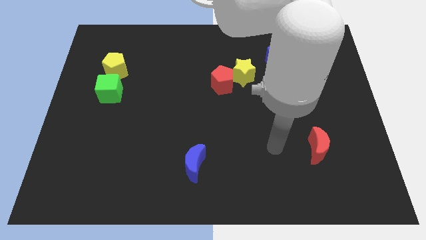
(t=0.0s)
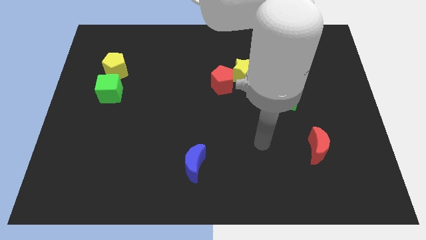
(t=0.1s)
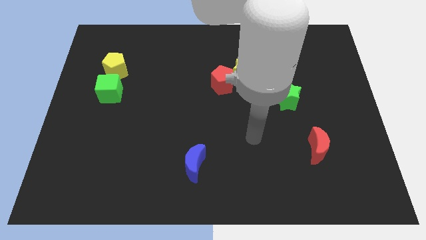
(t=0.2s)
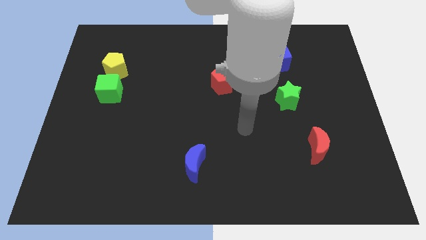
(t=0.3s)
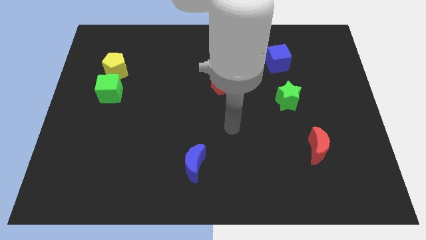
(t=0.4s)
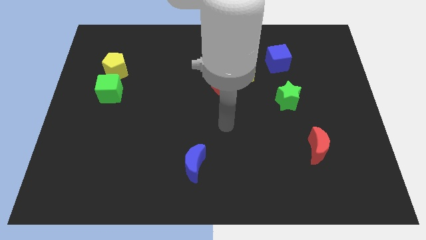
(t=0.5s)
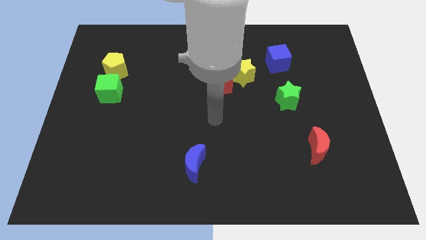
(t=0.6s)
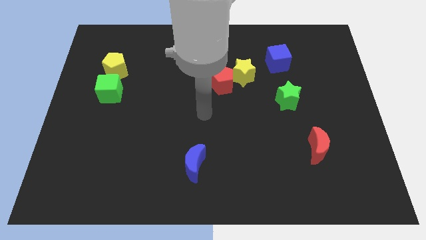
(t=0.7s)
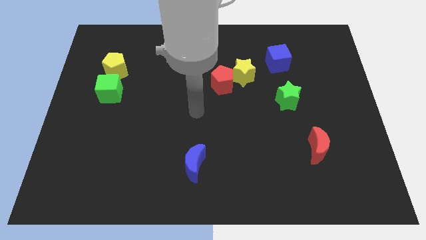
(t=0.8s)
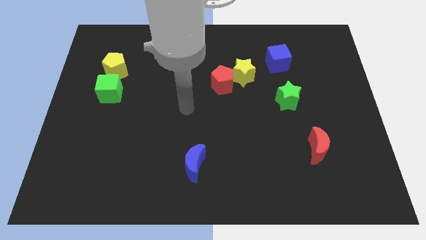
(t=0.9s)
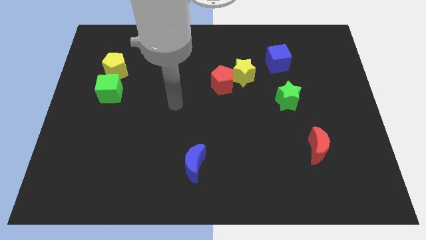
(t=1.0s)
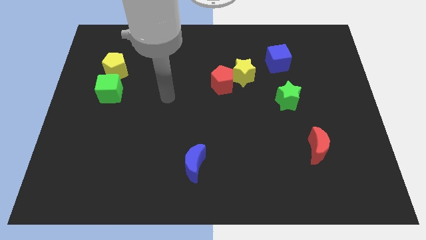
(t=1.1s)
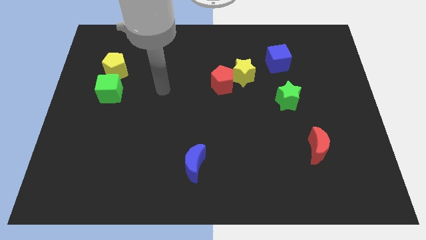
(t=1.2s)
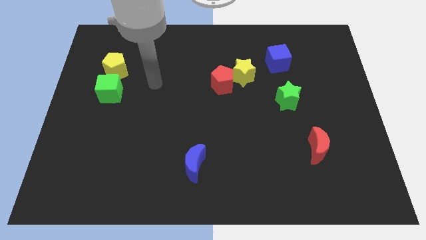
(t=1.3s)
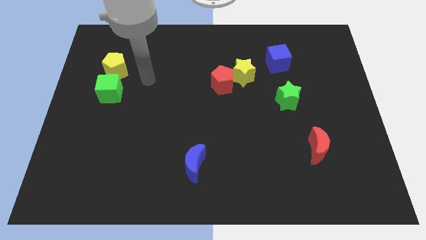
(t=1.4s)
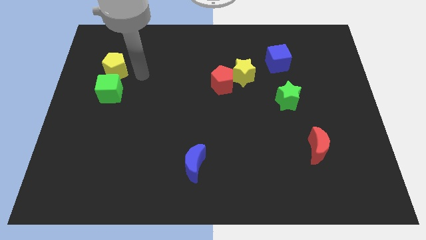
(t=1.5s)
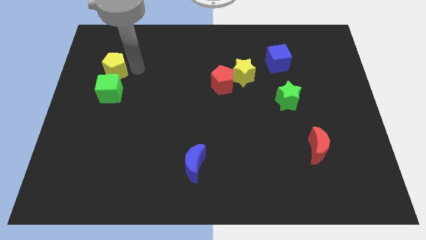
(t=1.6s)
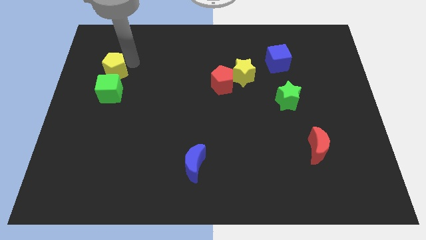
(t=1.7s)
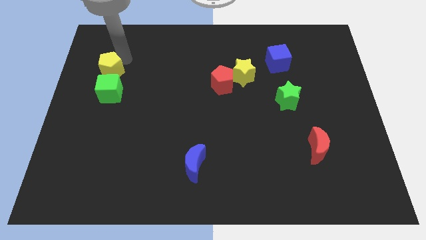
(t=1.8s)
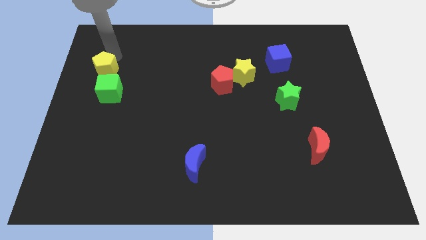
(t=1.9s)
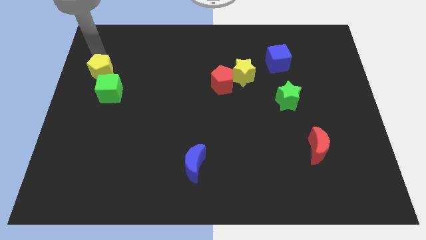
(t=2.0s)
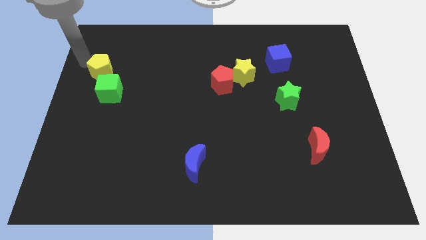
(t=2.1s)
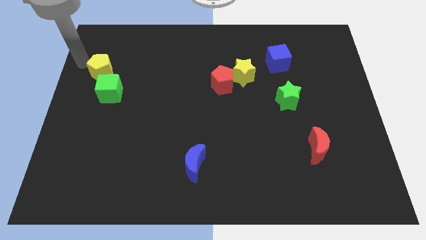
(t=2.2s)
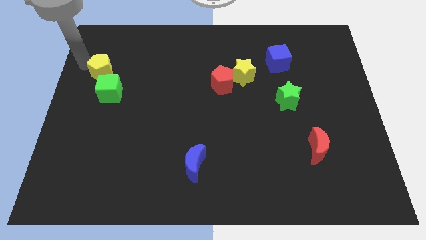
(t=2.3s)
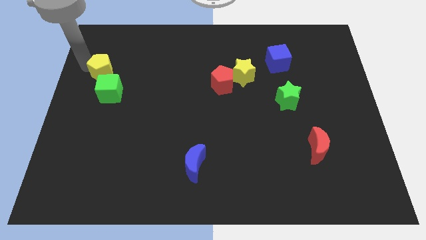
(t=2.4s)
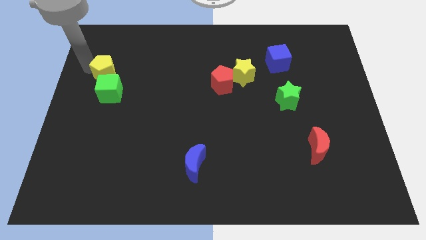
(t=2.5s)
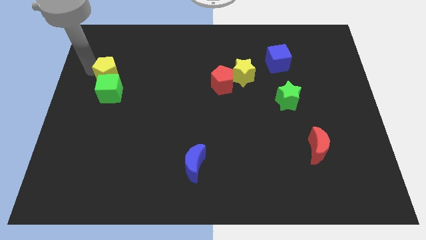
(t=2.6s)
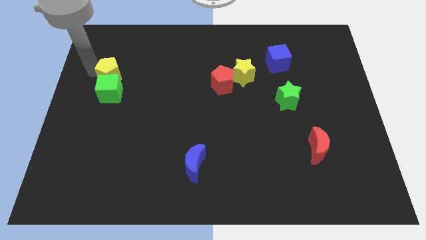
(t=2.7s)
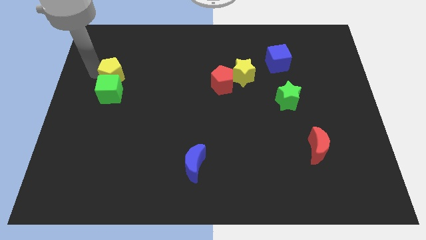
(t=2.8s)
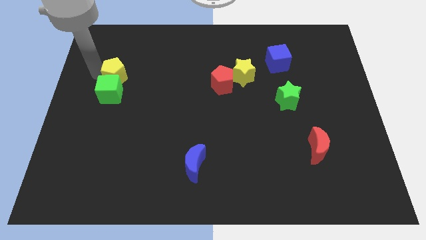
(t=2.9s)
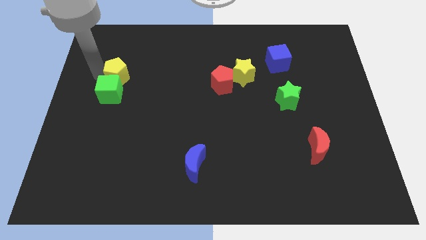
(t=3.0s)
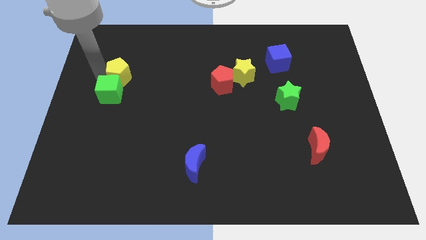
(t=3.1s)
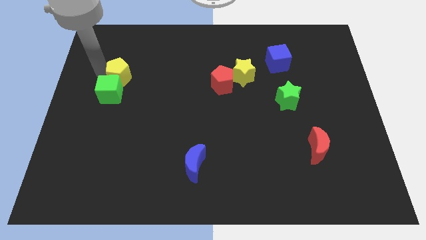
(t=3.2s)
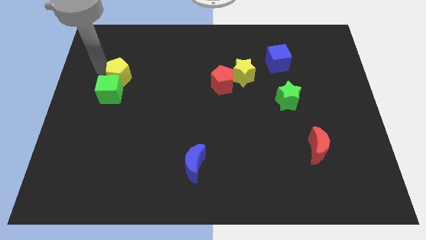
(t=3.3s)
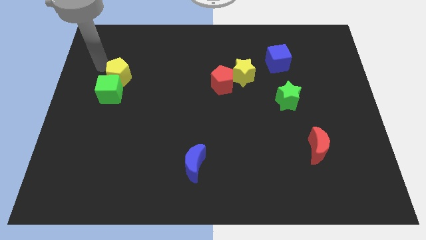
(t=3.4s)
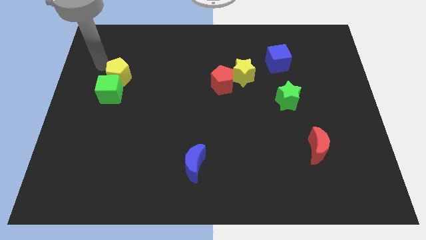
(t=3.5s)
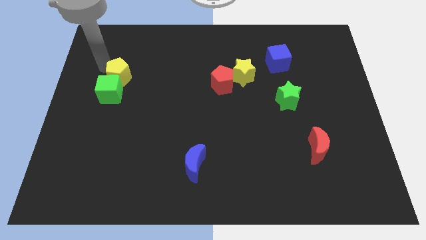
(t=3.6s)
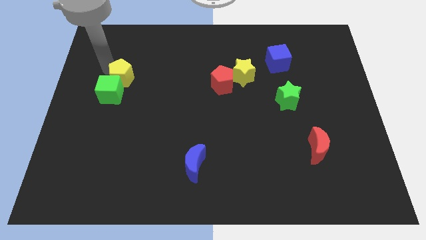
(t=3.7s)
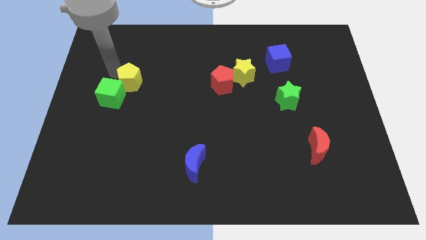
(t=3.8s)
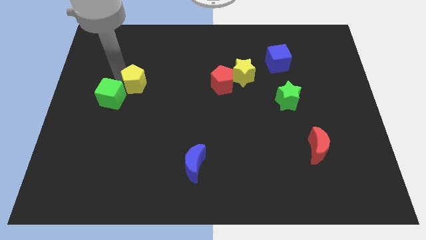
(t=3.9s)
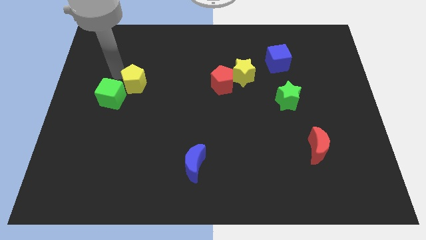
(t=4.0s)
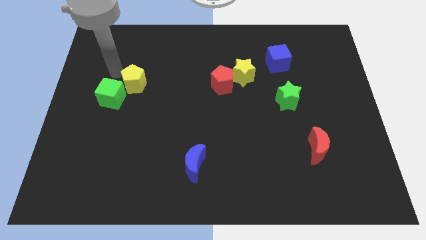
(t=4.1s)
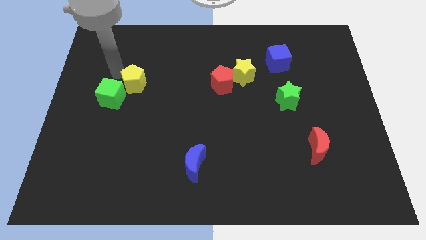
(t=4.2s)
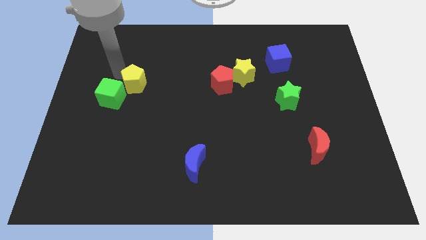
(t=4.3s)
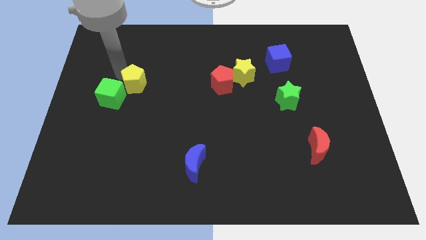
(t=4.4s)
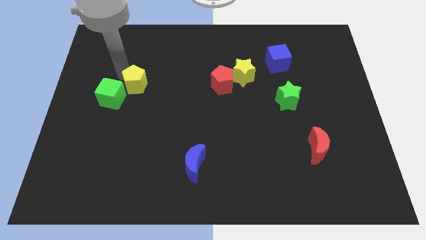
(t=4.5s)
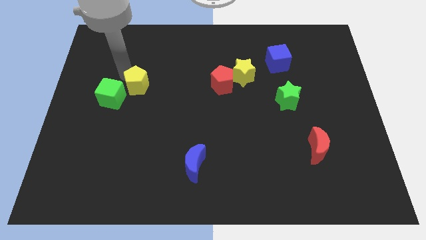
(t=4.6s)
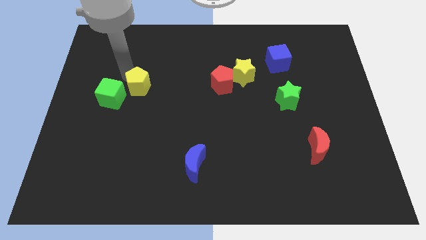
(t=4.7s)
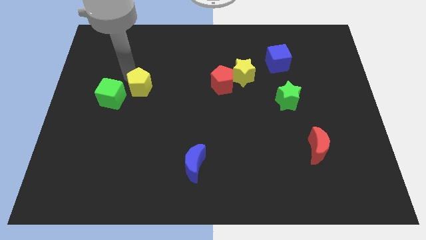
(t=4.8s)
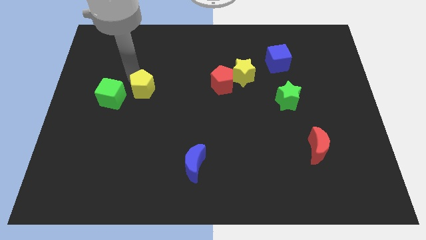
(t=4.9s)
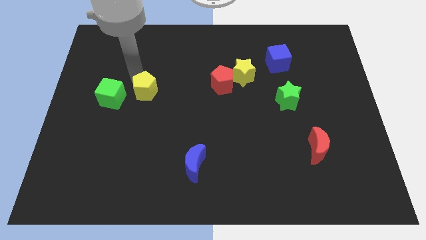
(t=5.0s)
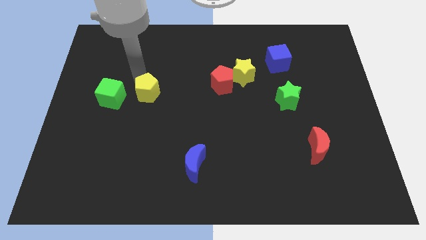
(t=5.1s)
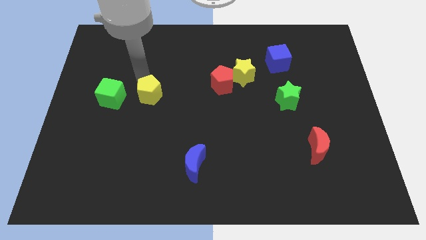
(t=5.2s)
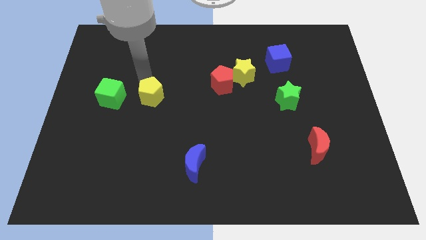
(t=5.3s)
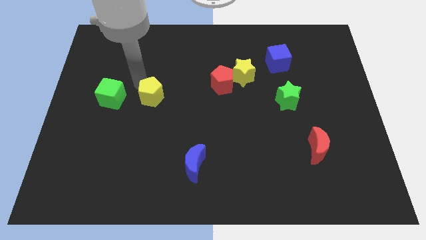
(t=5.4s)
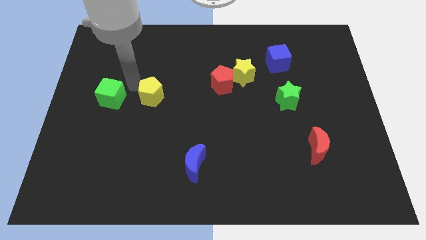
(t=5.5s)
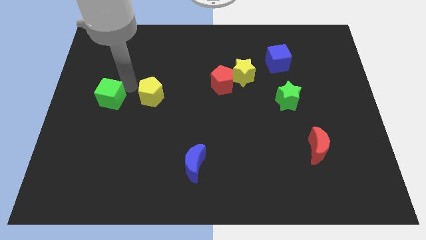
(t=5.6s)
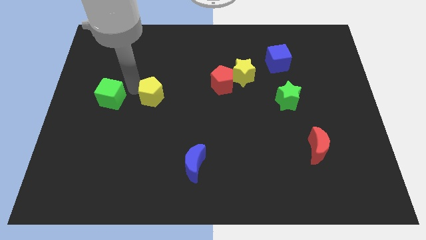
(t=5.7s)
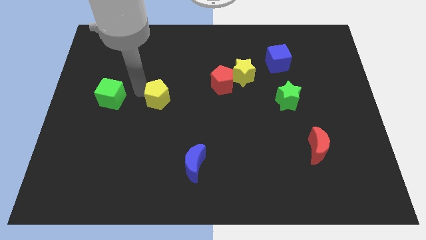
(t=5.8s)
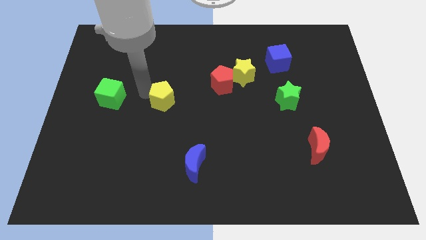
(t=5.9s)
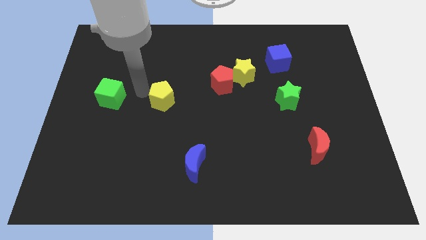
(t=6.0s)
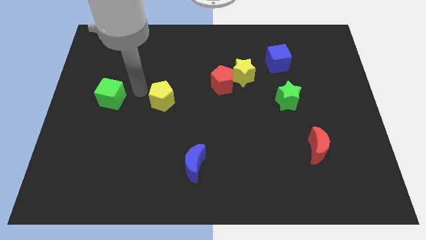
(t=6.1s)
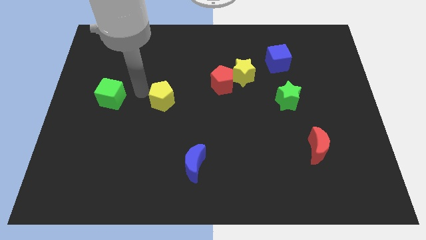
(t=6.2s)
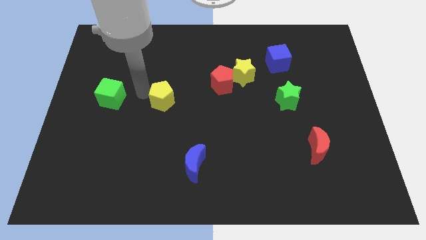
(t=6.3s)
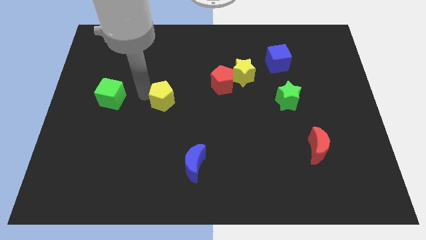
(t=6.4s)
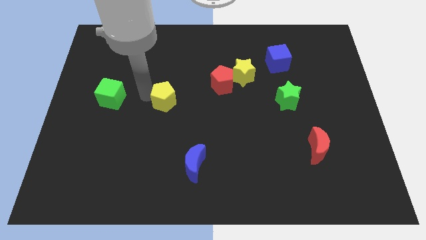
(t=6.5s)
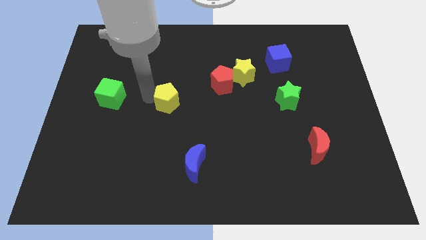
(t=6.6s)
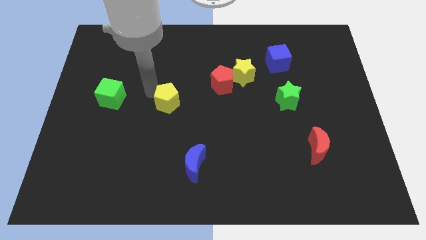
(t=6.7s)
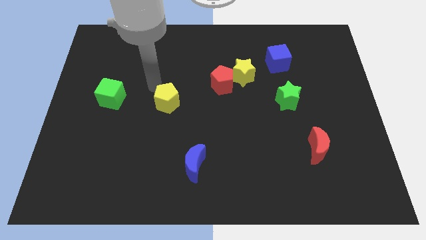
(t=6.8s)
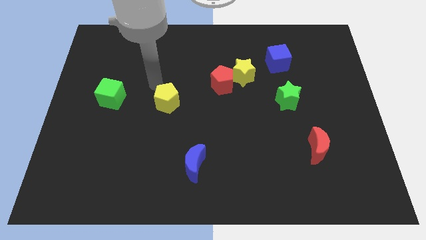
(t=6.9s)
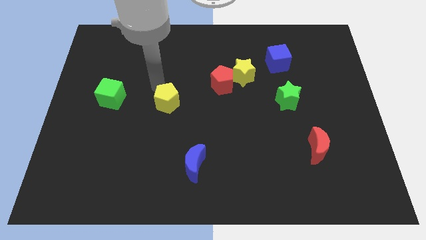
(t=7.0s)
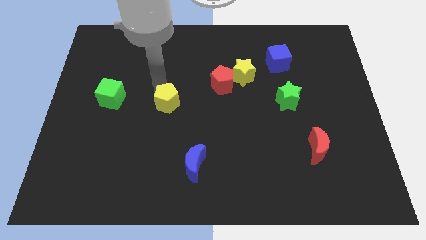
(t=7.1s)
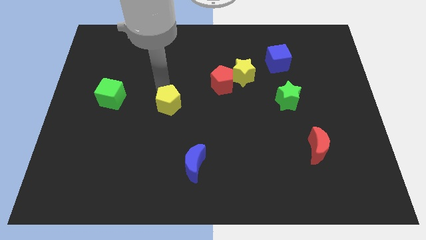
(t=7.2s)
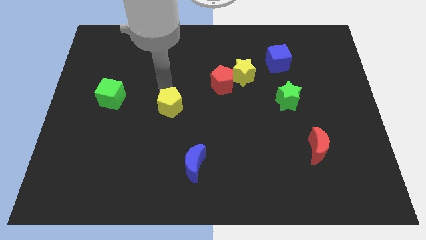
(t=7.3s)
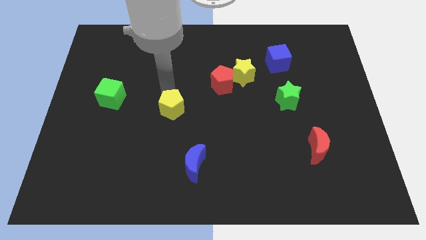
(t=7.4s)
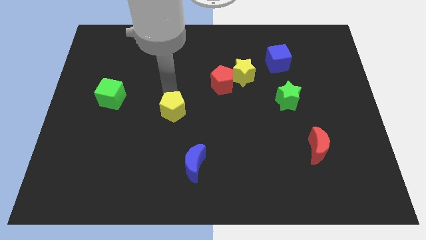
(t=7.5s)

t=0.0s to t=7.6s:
push the yellow pentagon downwards and right

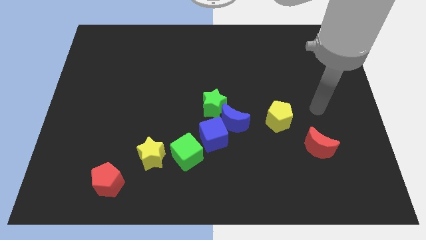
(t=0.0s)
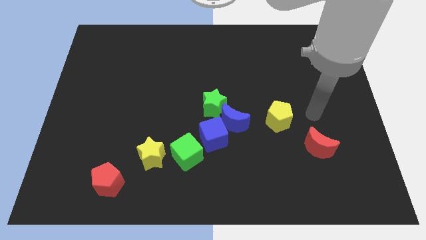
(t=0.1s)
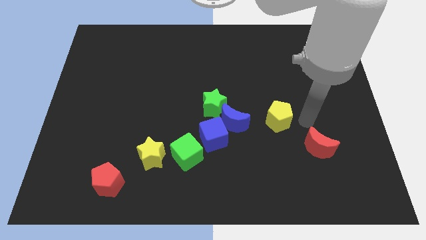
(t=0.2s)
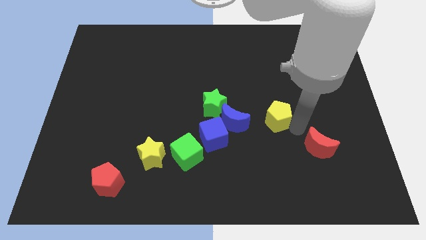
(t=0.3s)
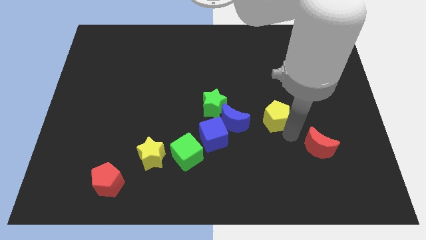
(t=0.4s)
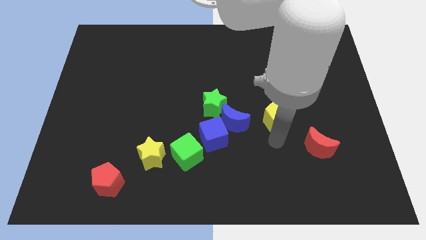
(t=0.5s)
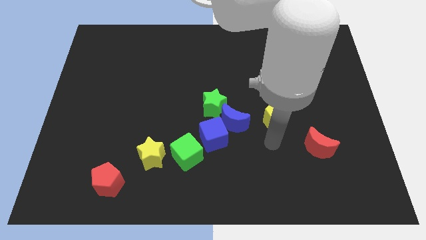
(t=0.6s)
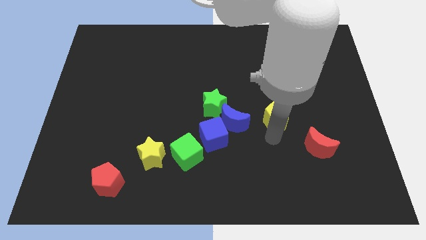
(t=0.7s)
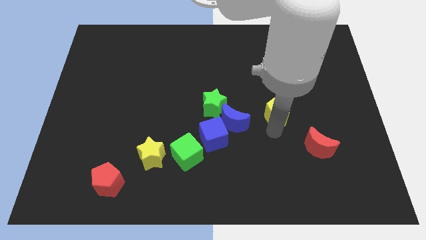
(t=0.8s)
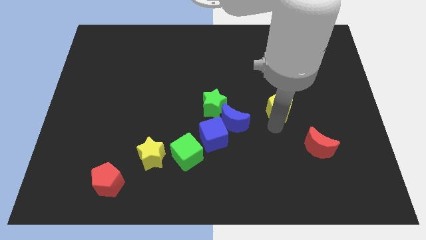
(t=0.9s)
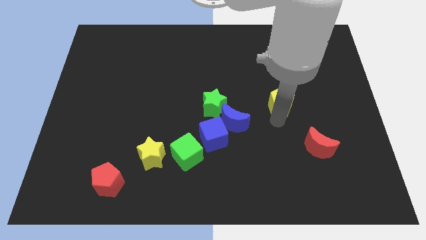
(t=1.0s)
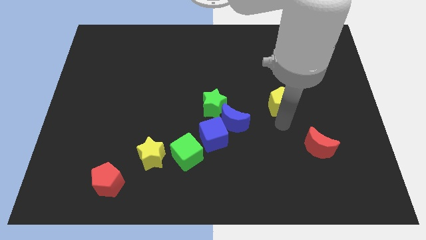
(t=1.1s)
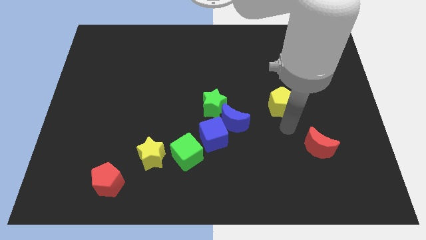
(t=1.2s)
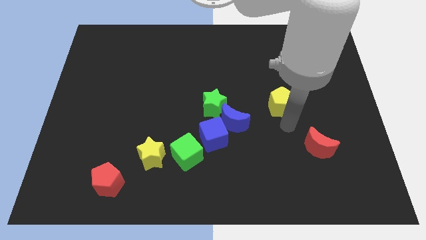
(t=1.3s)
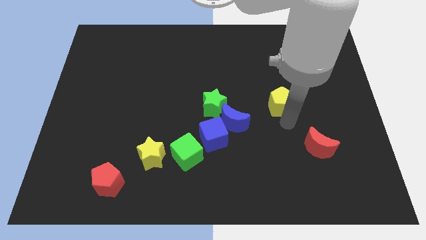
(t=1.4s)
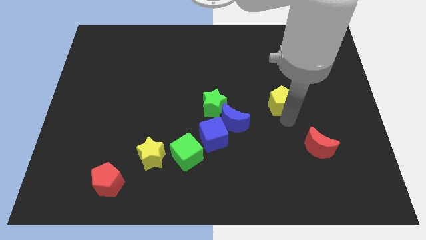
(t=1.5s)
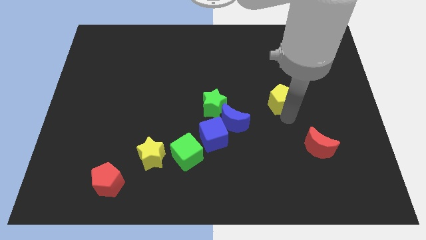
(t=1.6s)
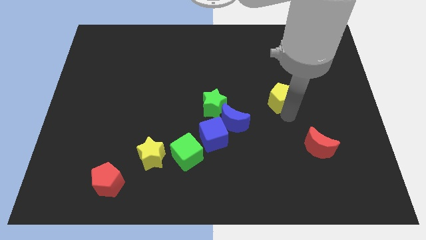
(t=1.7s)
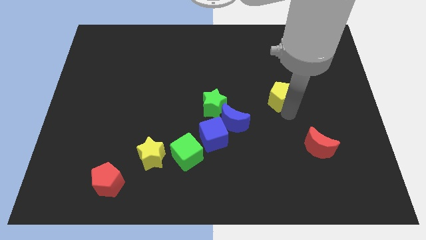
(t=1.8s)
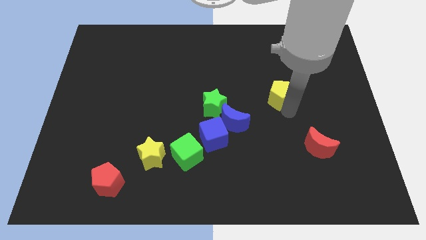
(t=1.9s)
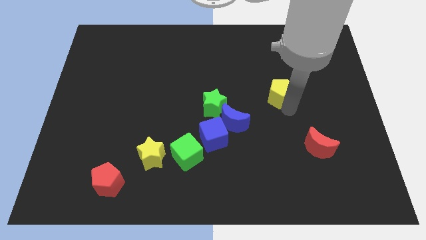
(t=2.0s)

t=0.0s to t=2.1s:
slightly push the yellow pentagon up
